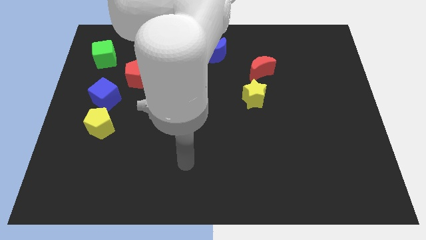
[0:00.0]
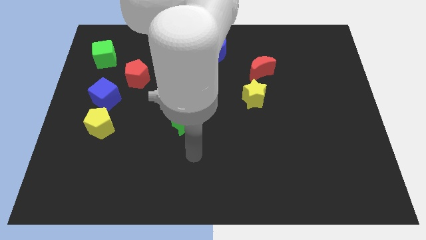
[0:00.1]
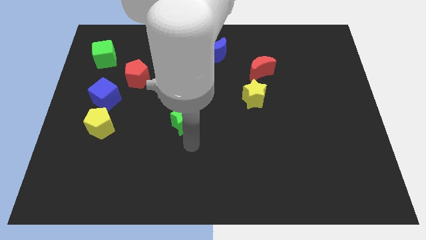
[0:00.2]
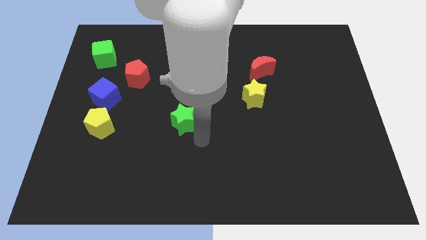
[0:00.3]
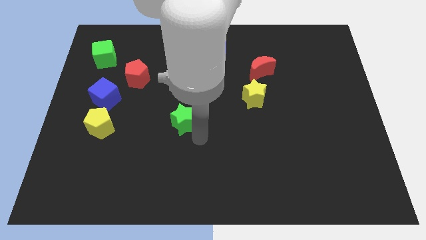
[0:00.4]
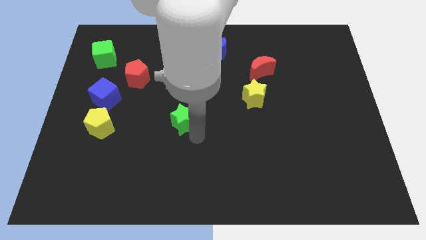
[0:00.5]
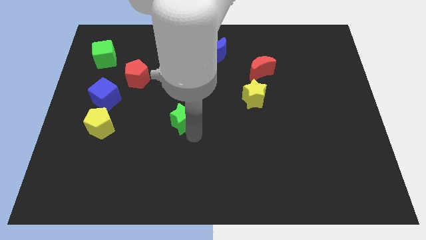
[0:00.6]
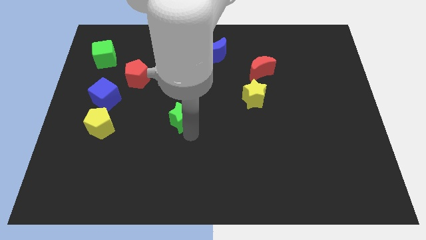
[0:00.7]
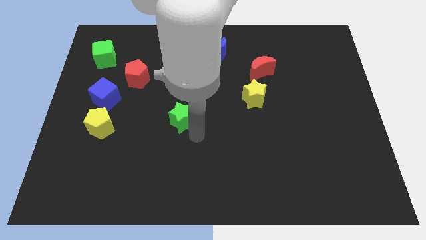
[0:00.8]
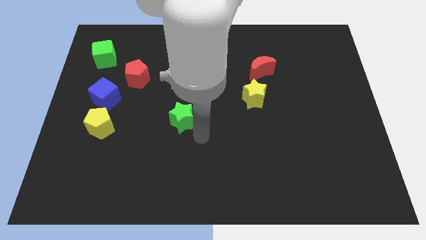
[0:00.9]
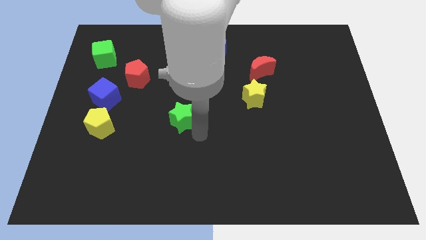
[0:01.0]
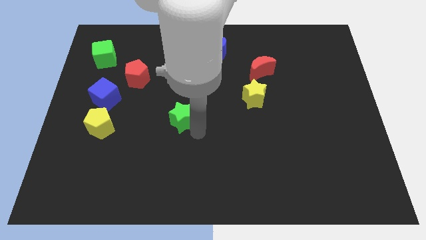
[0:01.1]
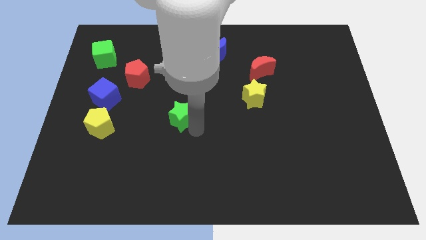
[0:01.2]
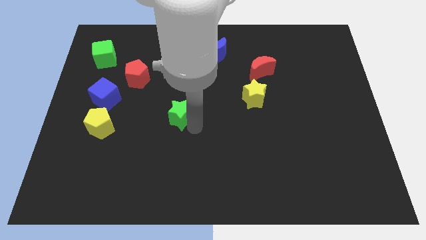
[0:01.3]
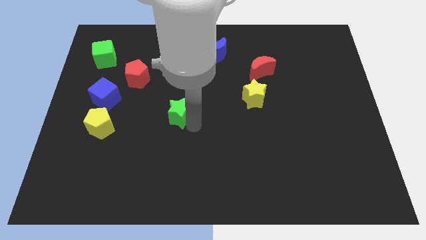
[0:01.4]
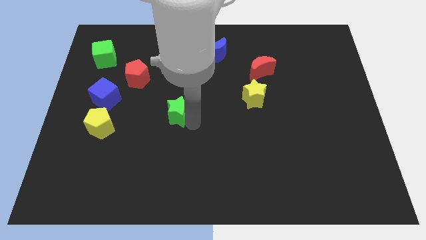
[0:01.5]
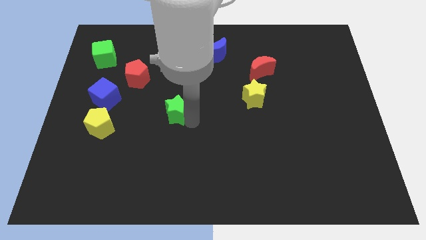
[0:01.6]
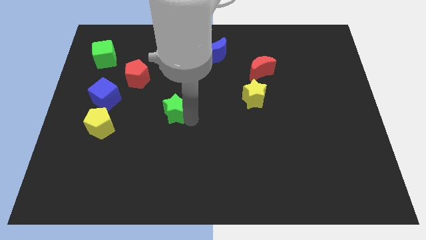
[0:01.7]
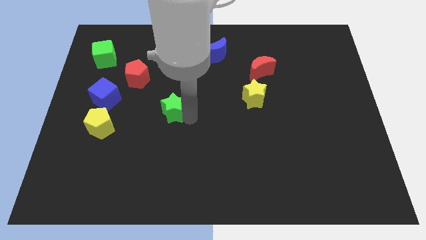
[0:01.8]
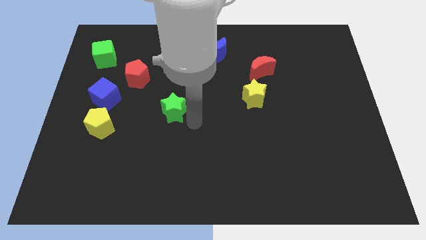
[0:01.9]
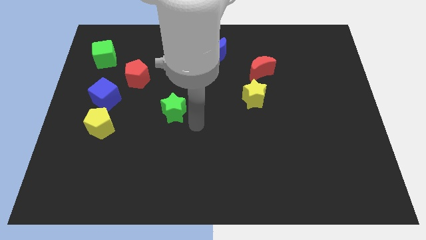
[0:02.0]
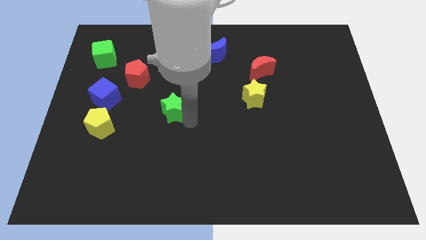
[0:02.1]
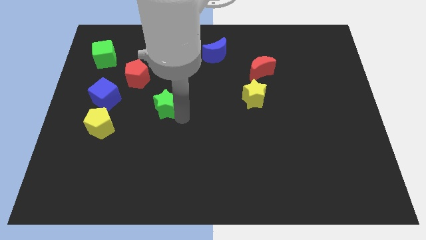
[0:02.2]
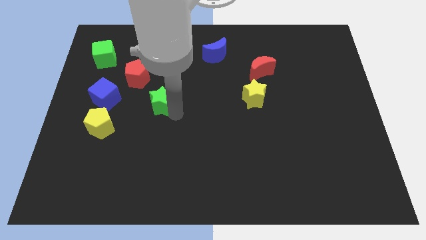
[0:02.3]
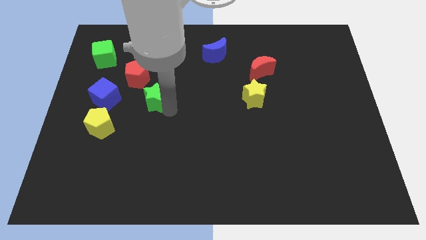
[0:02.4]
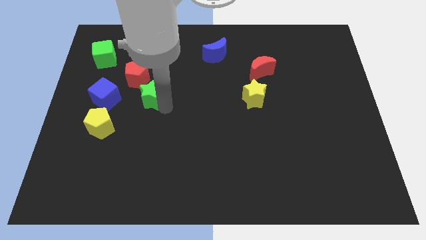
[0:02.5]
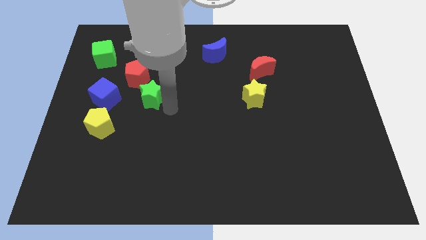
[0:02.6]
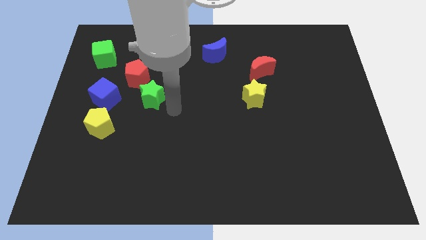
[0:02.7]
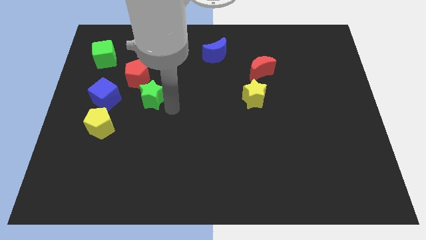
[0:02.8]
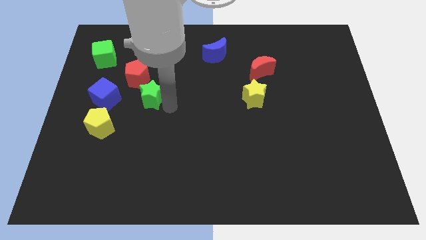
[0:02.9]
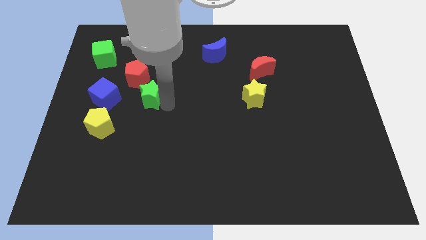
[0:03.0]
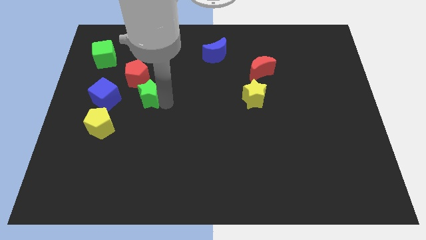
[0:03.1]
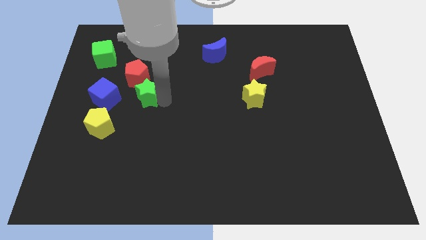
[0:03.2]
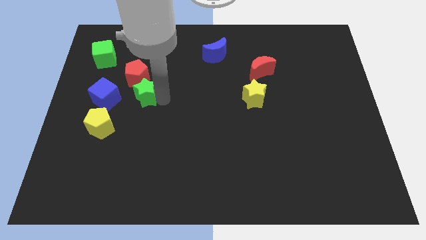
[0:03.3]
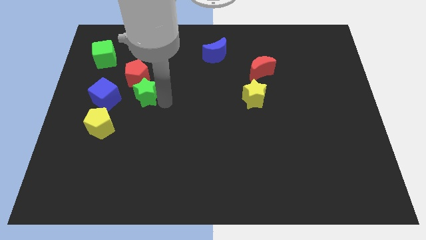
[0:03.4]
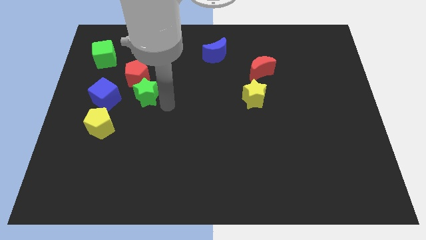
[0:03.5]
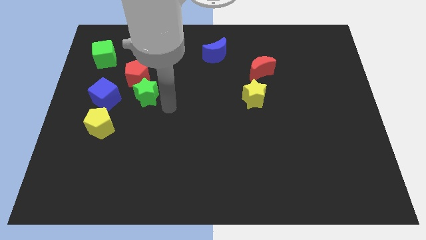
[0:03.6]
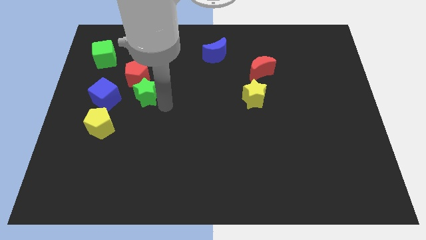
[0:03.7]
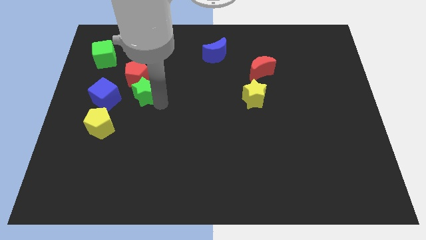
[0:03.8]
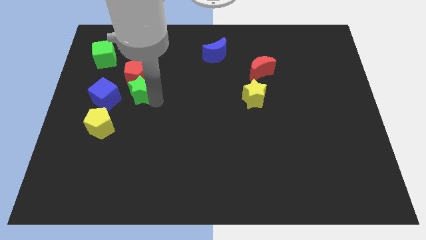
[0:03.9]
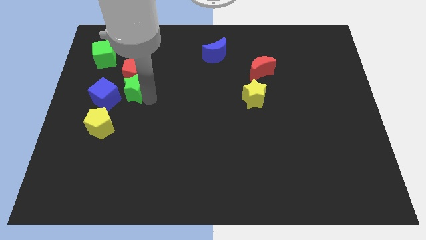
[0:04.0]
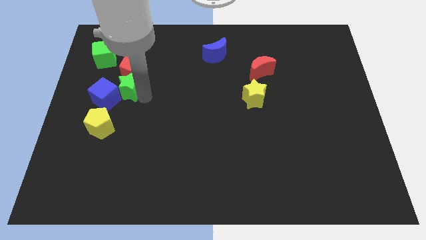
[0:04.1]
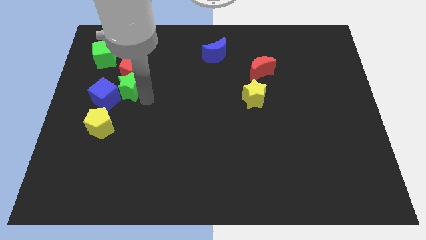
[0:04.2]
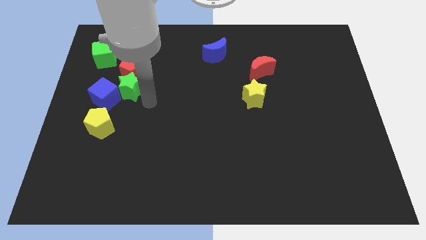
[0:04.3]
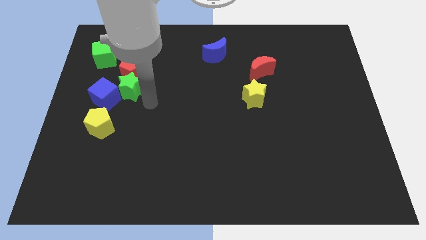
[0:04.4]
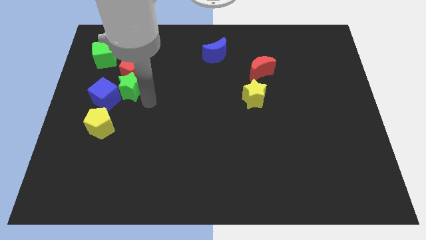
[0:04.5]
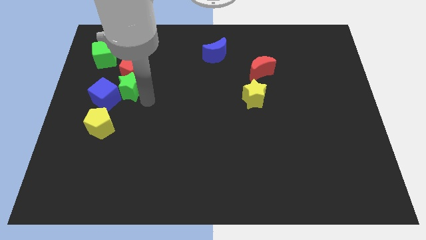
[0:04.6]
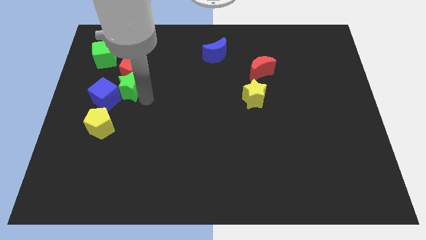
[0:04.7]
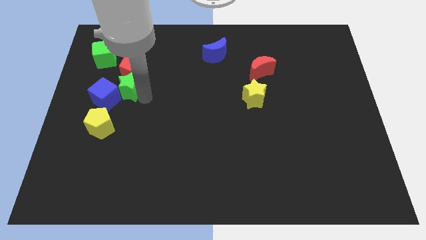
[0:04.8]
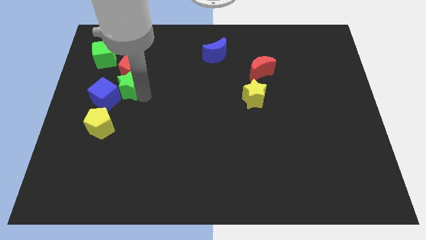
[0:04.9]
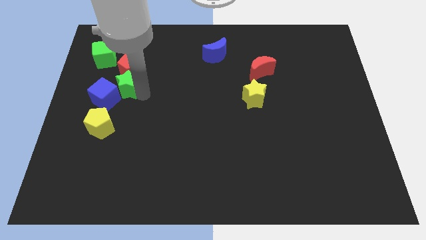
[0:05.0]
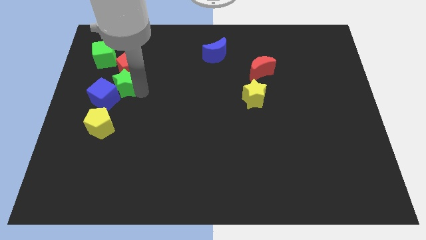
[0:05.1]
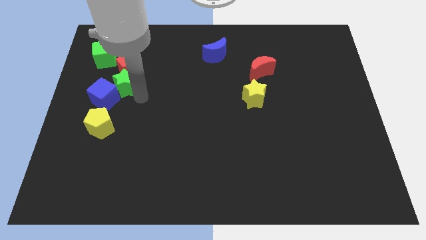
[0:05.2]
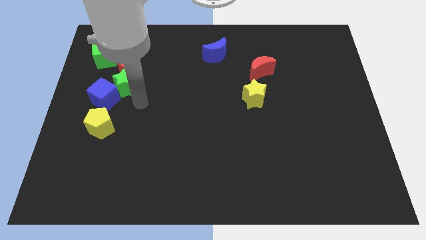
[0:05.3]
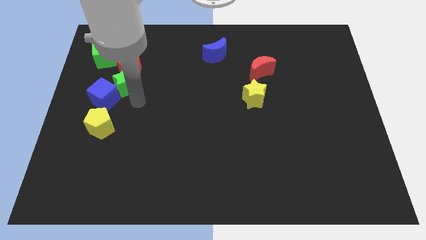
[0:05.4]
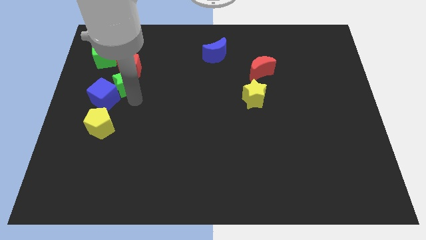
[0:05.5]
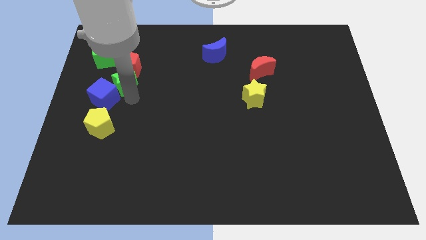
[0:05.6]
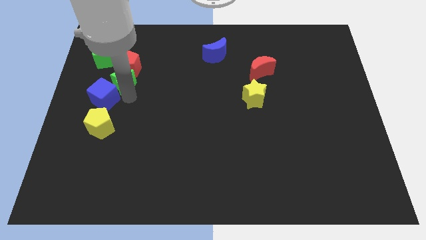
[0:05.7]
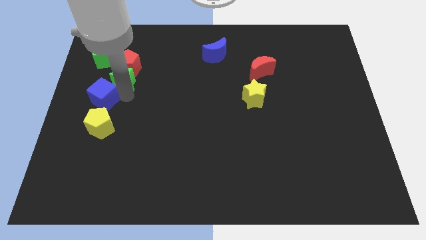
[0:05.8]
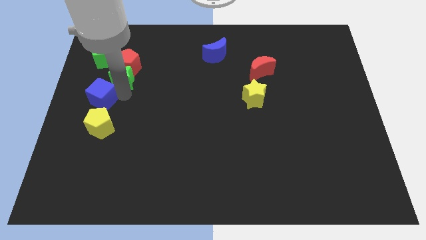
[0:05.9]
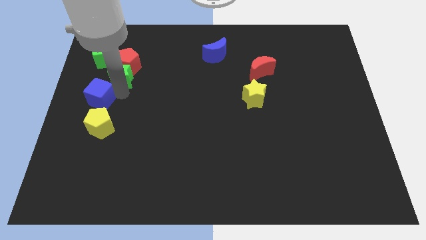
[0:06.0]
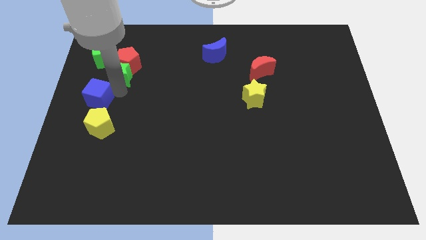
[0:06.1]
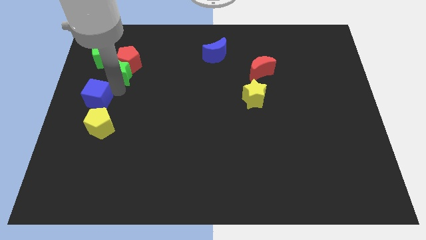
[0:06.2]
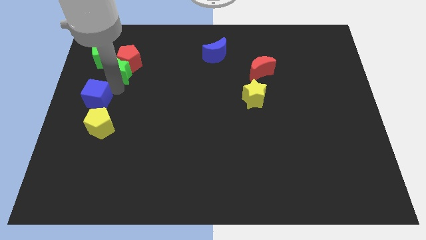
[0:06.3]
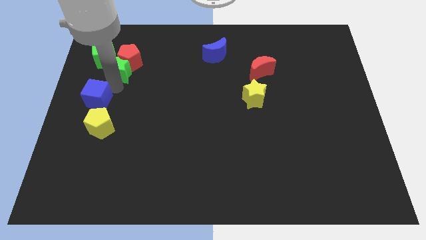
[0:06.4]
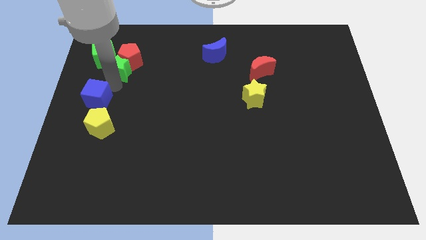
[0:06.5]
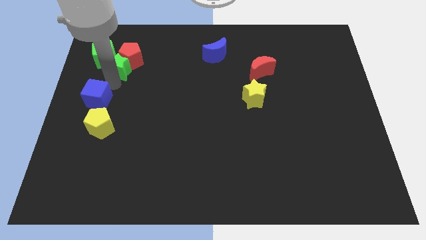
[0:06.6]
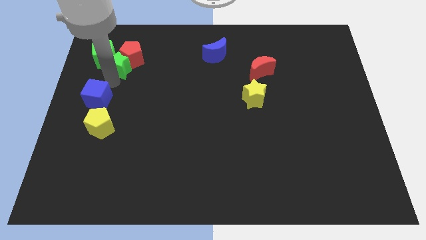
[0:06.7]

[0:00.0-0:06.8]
slide the green star next to the green cube

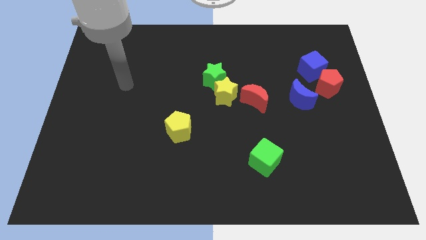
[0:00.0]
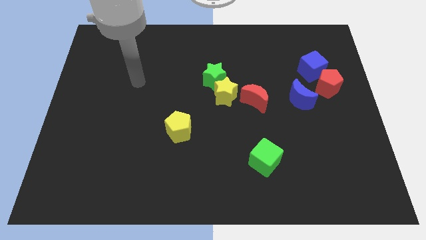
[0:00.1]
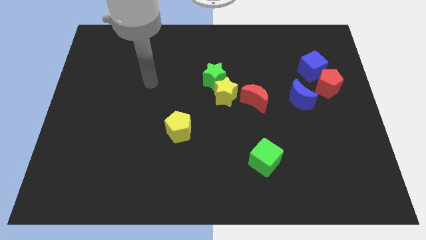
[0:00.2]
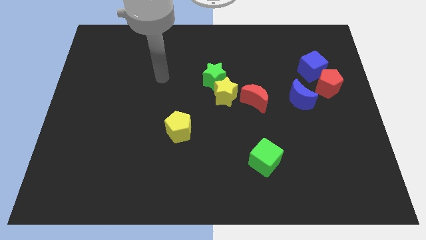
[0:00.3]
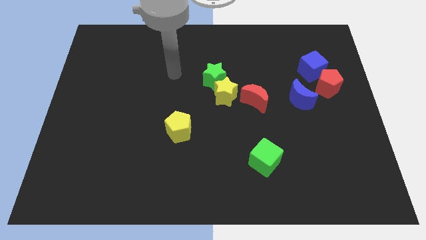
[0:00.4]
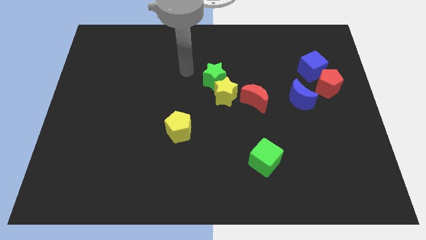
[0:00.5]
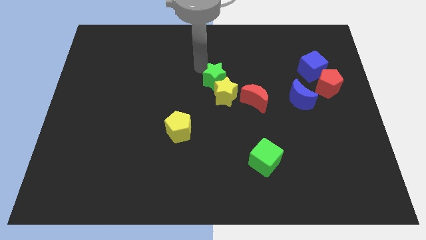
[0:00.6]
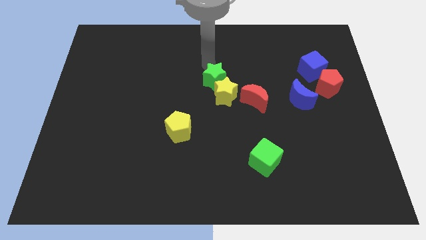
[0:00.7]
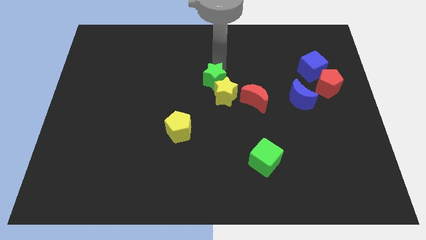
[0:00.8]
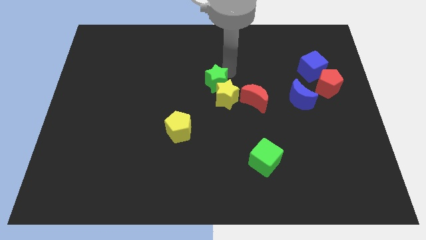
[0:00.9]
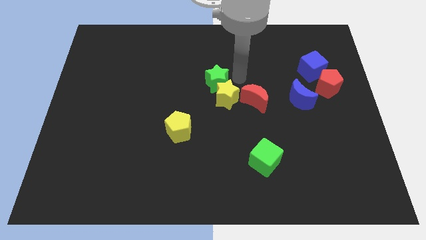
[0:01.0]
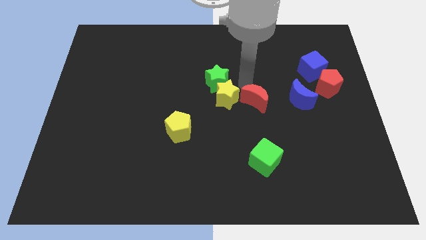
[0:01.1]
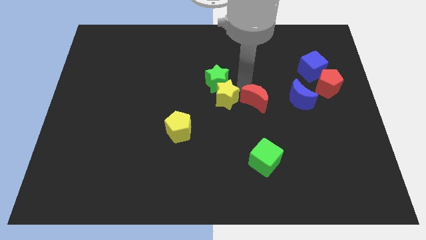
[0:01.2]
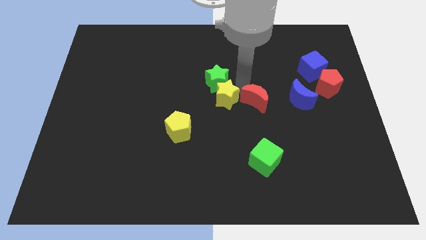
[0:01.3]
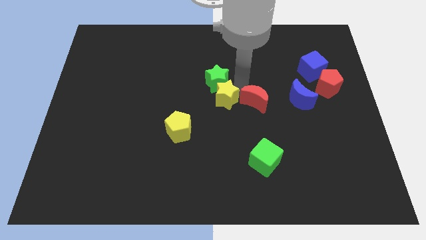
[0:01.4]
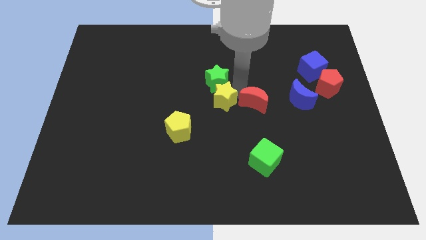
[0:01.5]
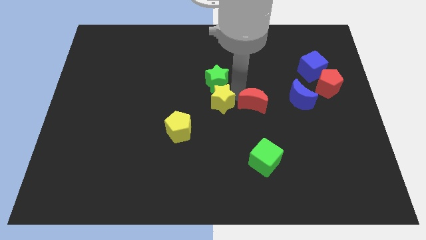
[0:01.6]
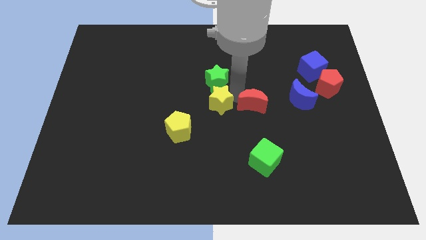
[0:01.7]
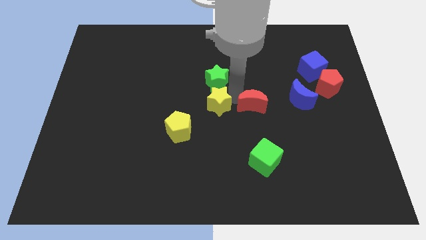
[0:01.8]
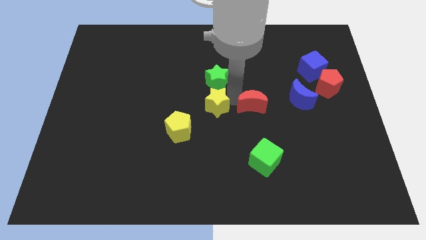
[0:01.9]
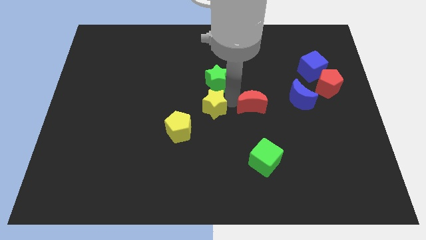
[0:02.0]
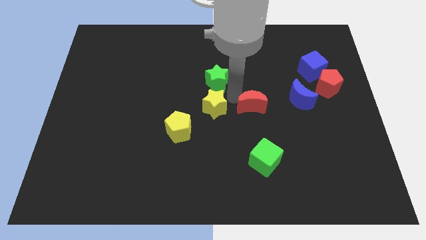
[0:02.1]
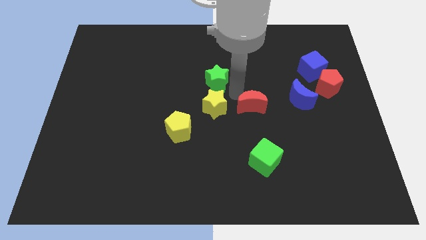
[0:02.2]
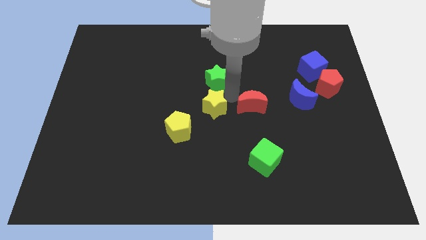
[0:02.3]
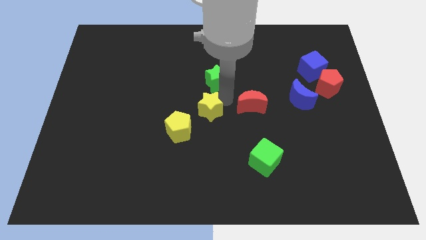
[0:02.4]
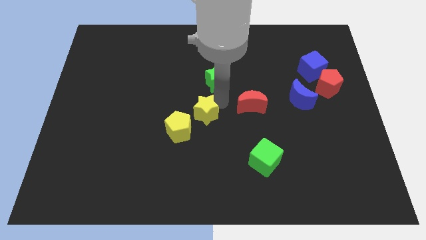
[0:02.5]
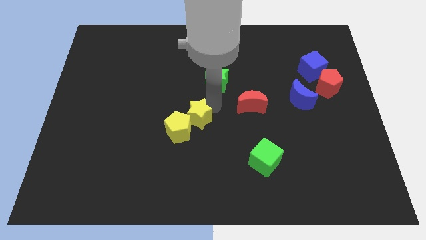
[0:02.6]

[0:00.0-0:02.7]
slide the yellow star next to the yellow pentagon
